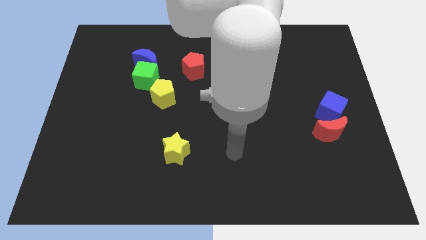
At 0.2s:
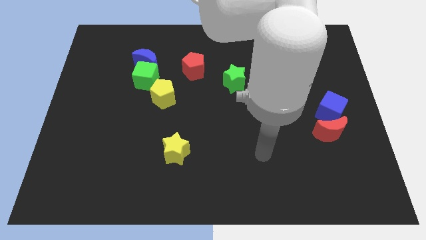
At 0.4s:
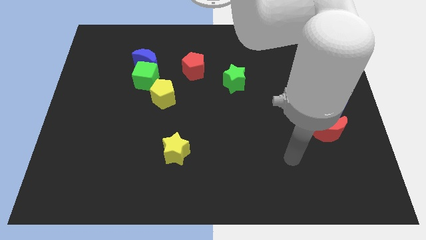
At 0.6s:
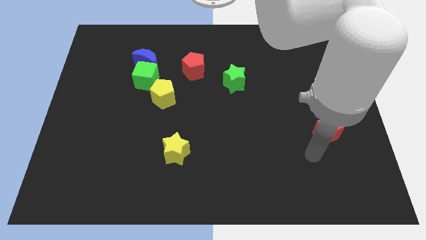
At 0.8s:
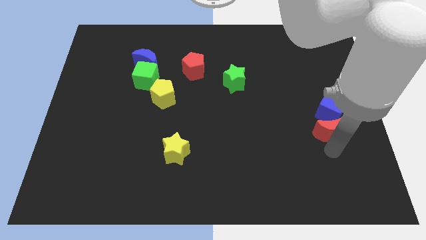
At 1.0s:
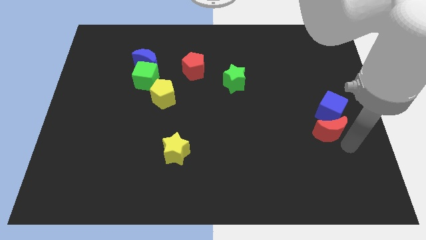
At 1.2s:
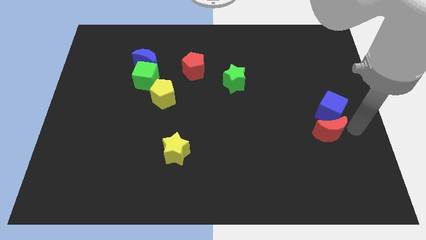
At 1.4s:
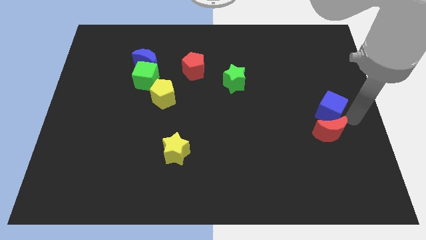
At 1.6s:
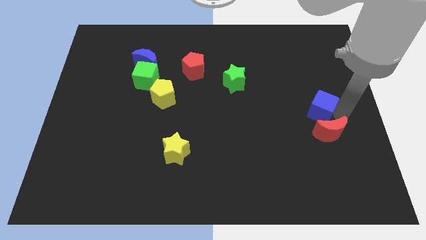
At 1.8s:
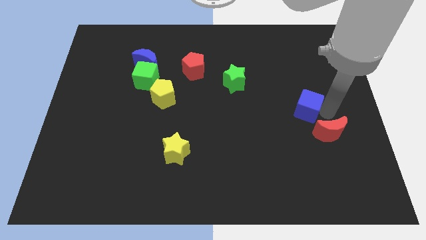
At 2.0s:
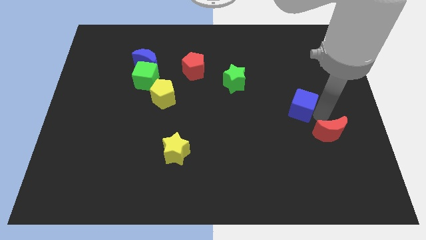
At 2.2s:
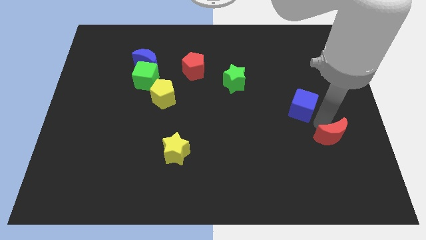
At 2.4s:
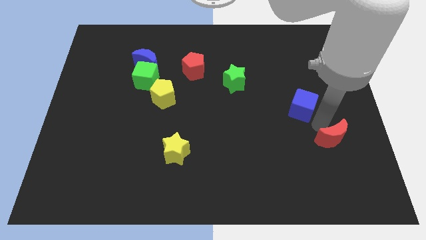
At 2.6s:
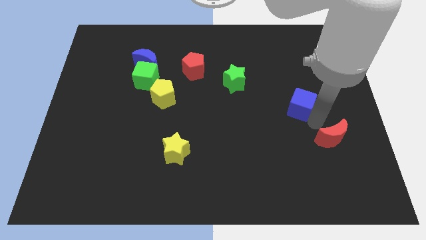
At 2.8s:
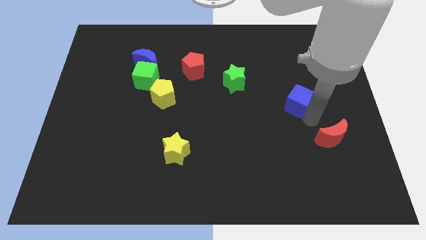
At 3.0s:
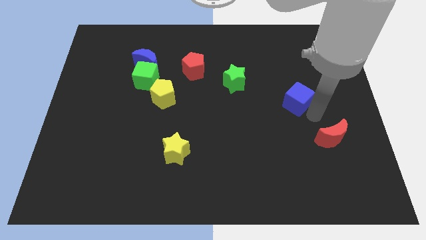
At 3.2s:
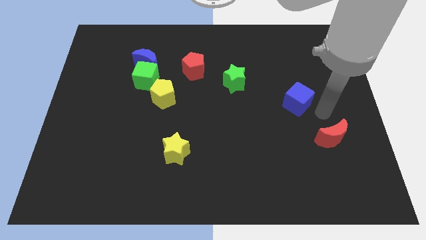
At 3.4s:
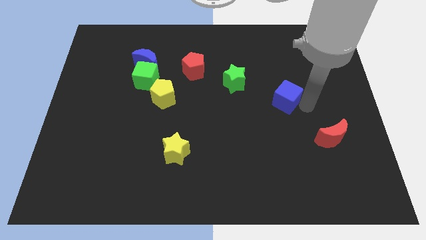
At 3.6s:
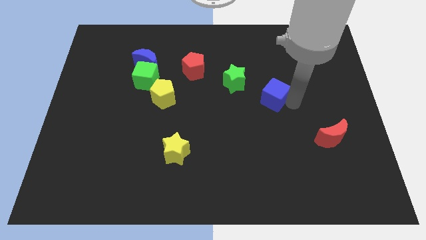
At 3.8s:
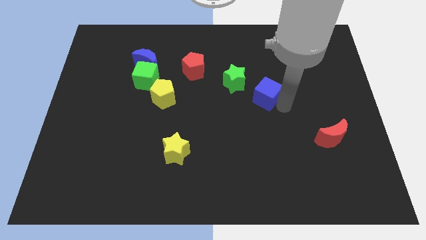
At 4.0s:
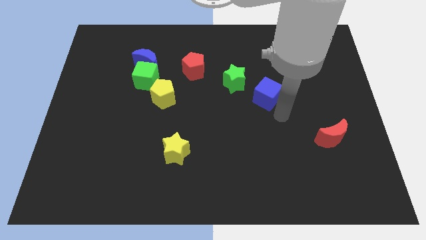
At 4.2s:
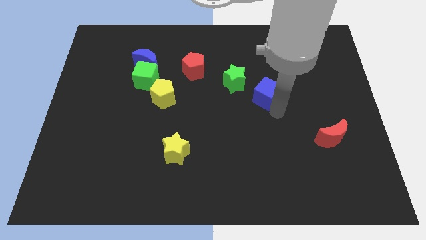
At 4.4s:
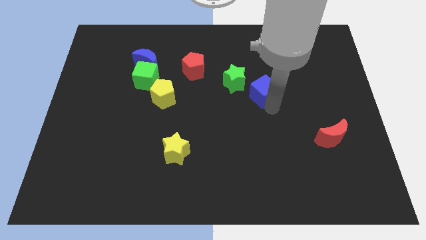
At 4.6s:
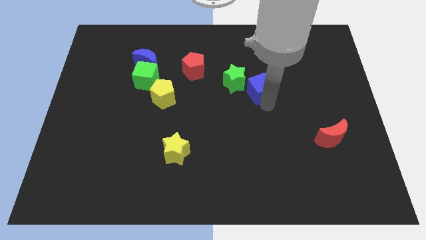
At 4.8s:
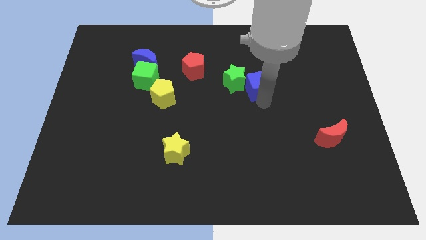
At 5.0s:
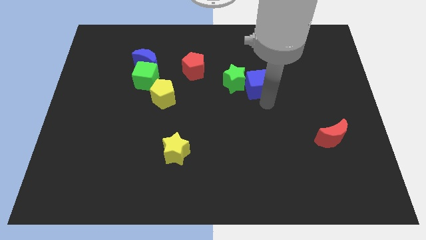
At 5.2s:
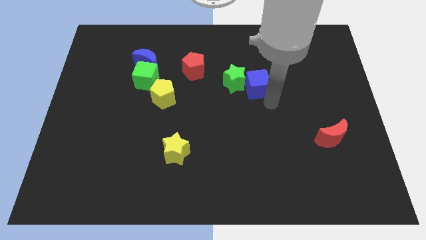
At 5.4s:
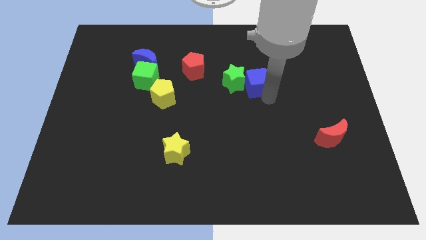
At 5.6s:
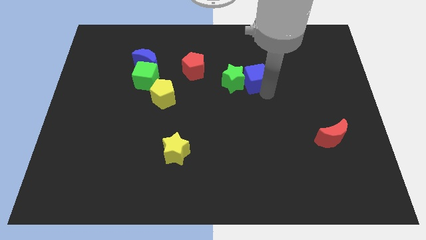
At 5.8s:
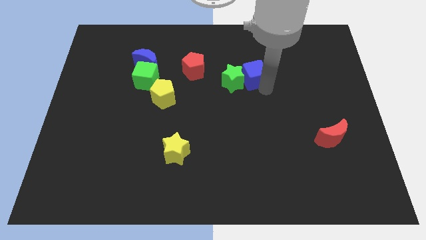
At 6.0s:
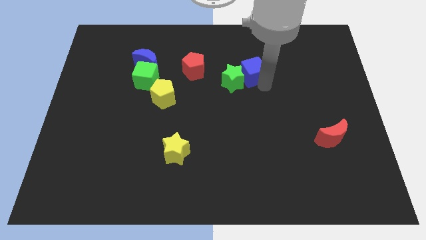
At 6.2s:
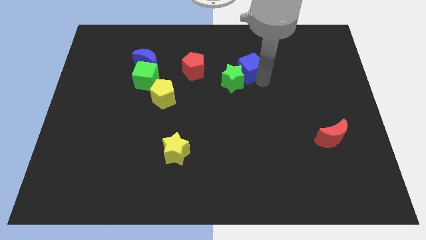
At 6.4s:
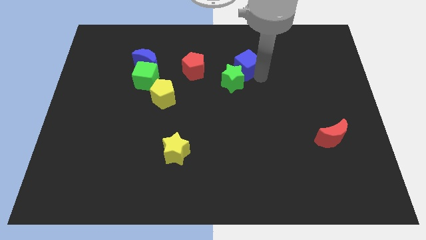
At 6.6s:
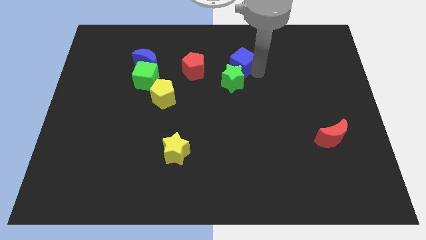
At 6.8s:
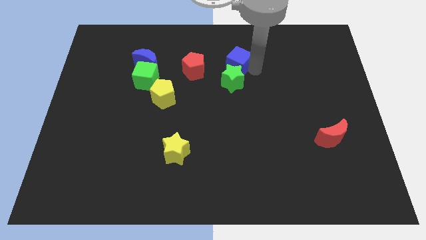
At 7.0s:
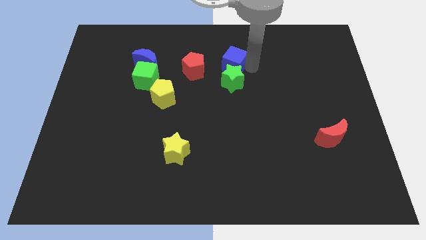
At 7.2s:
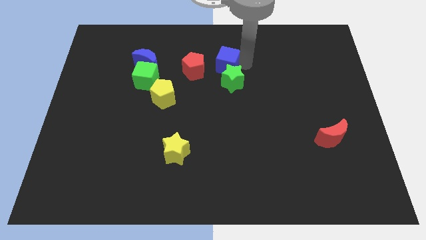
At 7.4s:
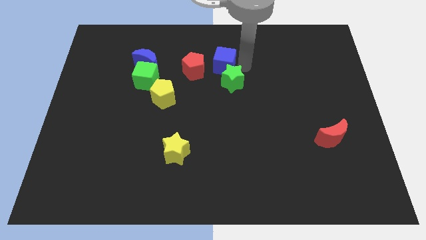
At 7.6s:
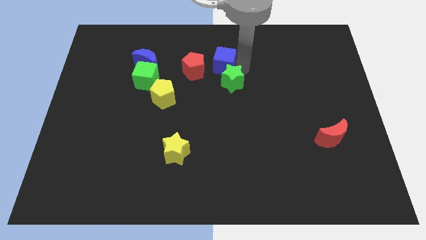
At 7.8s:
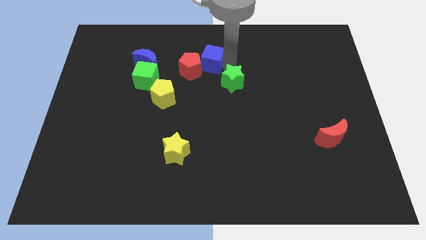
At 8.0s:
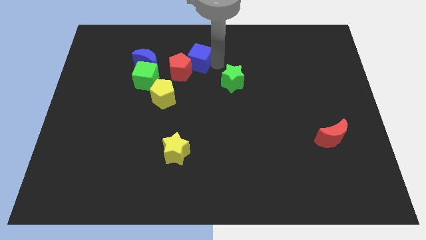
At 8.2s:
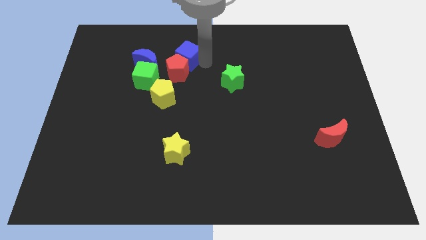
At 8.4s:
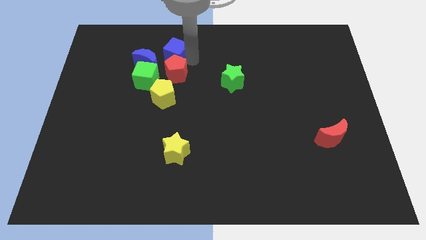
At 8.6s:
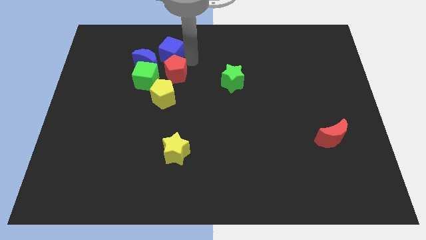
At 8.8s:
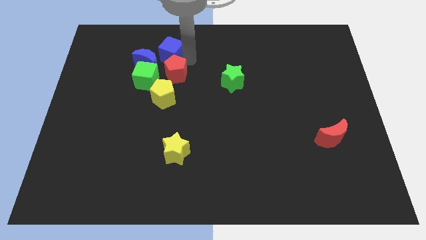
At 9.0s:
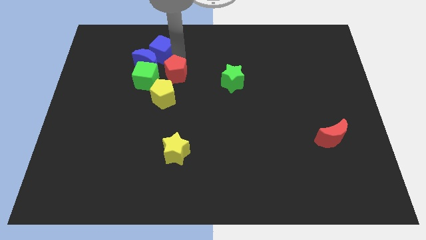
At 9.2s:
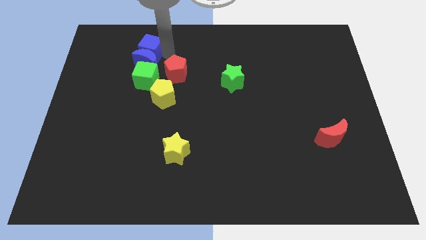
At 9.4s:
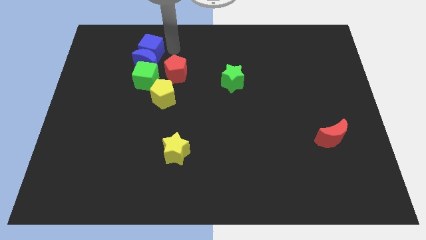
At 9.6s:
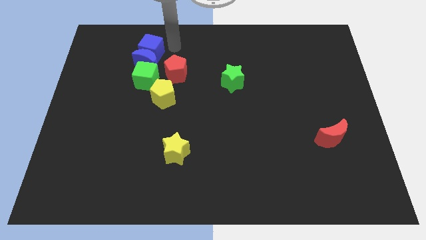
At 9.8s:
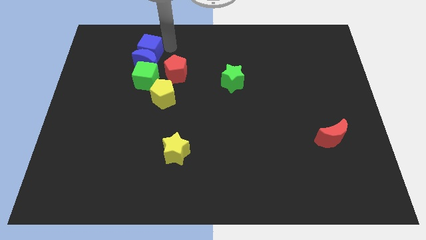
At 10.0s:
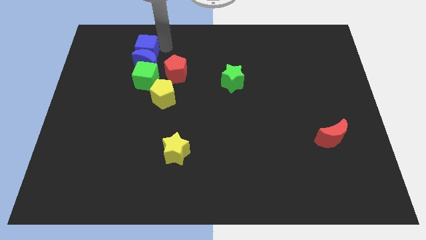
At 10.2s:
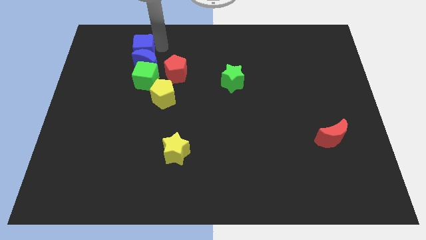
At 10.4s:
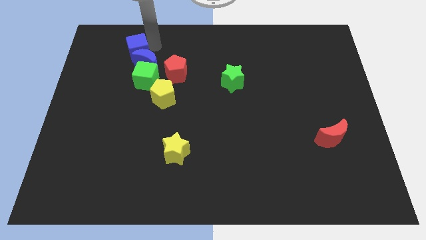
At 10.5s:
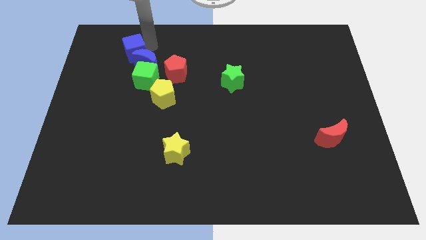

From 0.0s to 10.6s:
move the blue cube to the left of the blue moon

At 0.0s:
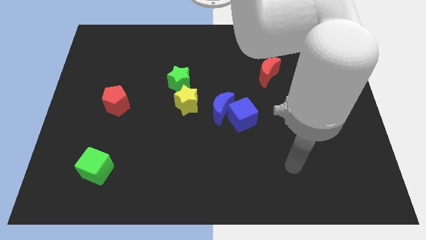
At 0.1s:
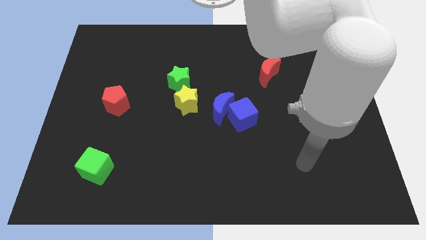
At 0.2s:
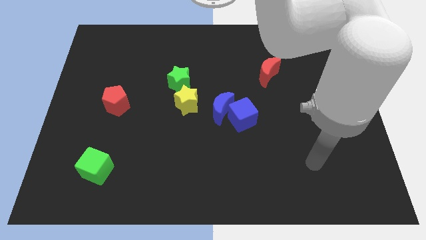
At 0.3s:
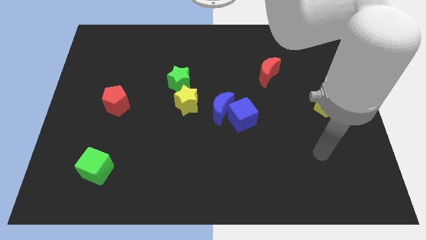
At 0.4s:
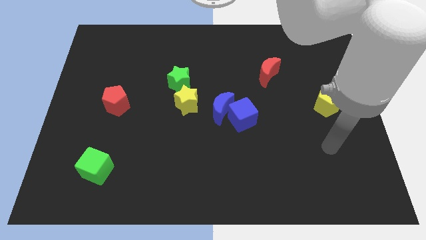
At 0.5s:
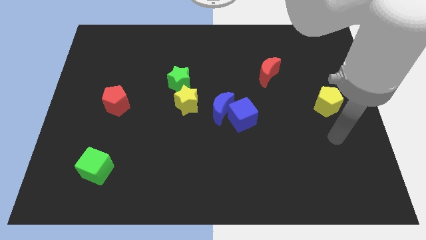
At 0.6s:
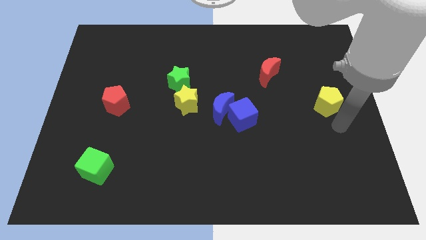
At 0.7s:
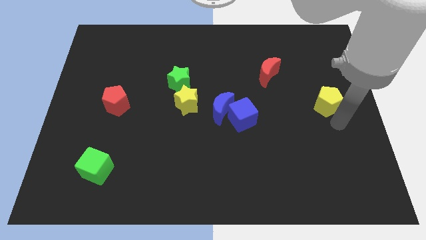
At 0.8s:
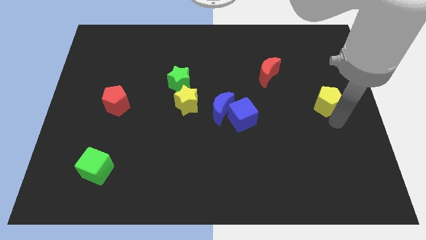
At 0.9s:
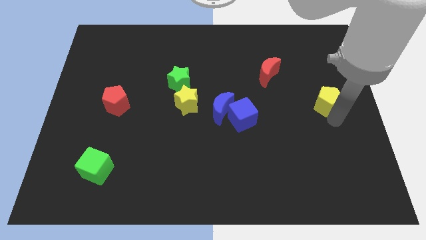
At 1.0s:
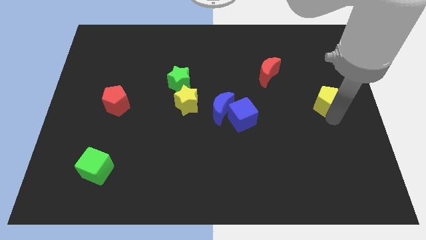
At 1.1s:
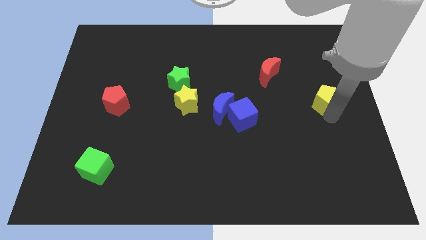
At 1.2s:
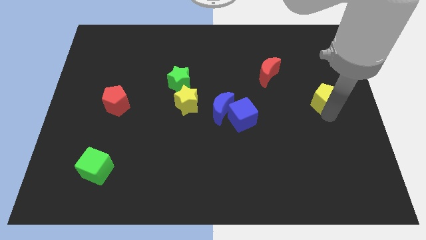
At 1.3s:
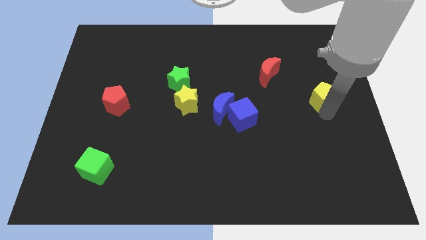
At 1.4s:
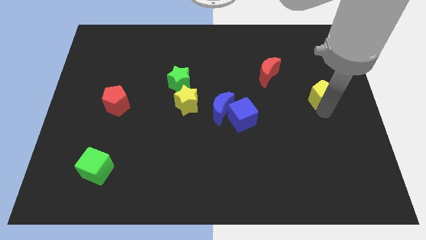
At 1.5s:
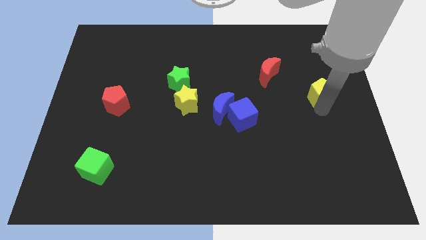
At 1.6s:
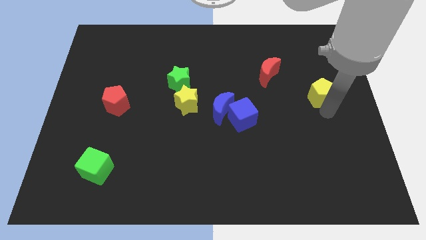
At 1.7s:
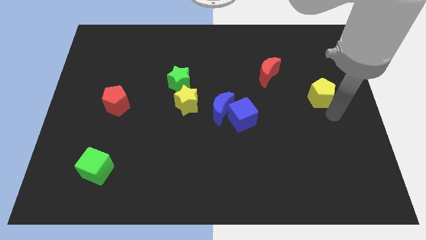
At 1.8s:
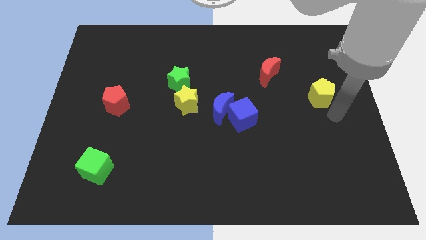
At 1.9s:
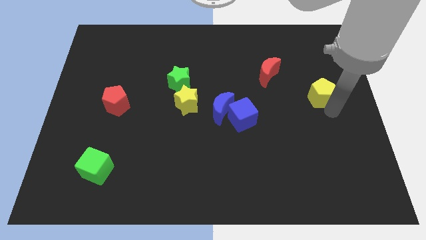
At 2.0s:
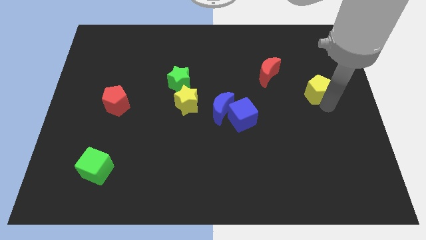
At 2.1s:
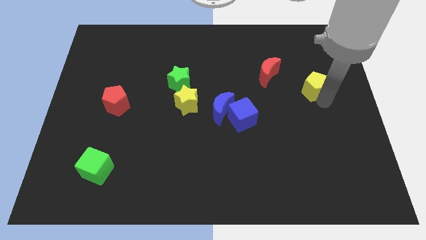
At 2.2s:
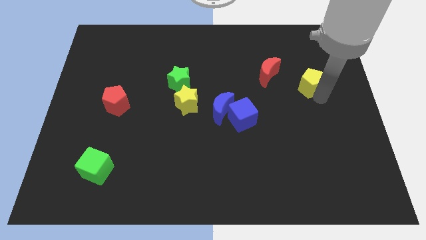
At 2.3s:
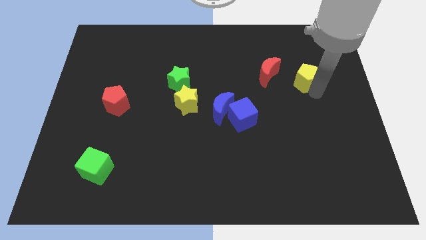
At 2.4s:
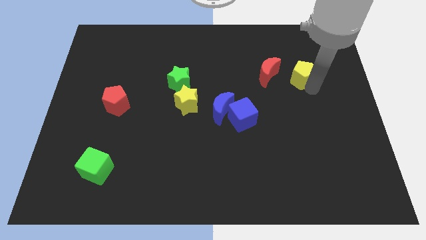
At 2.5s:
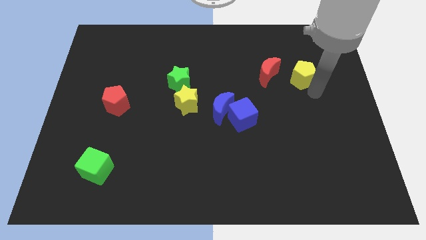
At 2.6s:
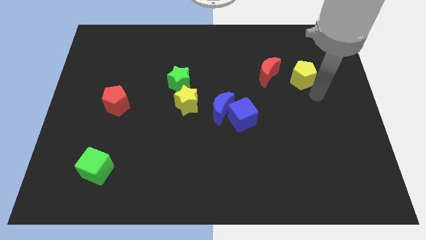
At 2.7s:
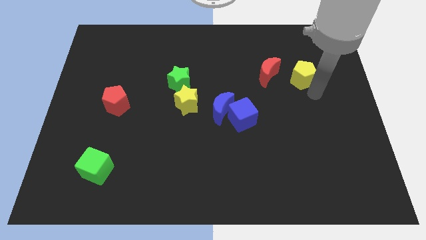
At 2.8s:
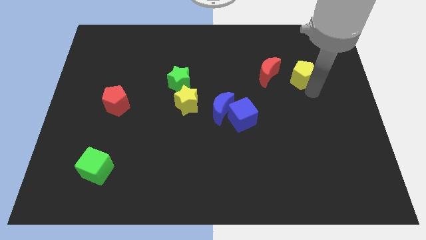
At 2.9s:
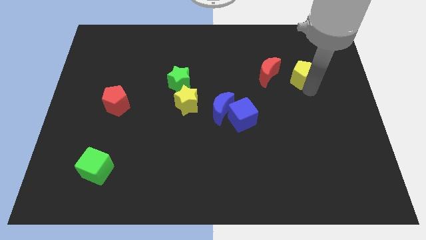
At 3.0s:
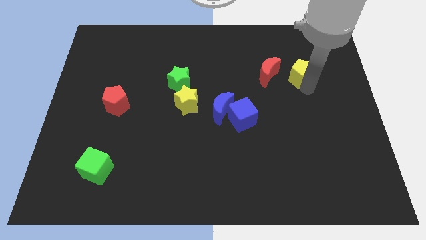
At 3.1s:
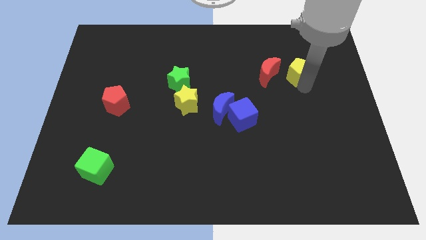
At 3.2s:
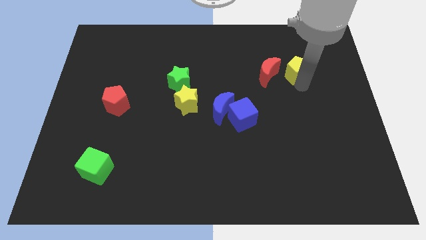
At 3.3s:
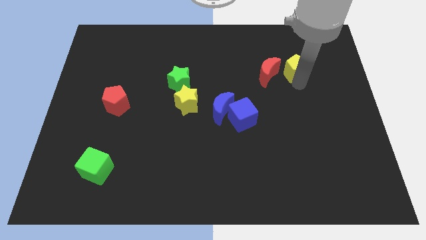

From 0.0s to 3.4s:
push the yellow pentagon to the top right side of the red moon
